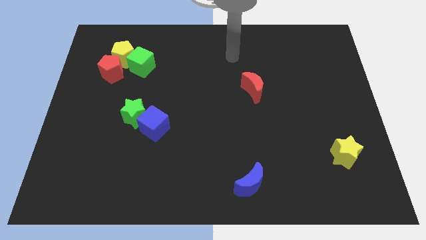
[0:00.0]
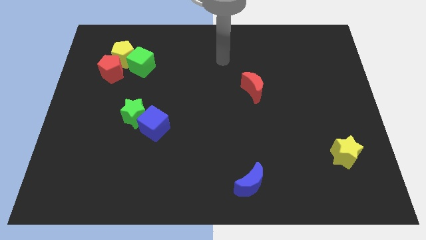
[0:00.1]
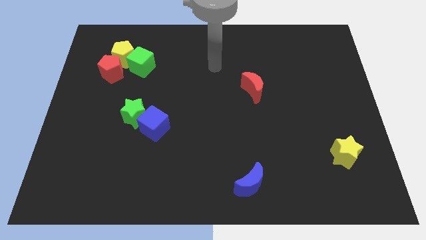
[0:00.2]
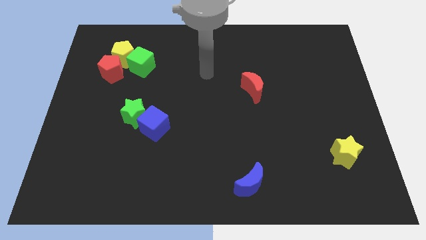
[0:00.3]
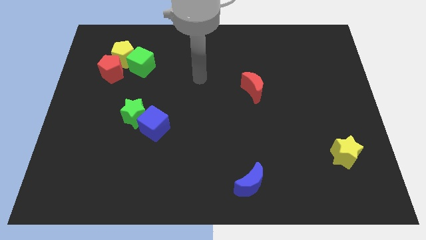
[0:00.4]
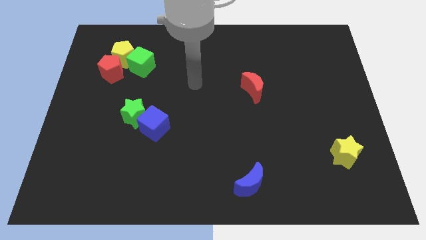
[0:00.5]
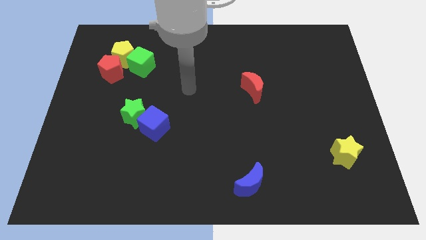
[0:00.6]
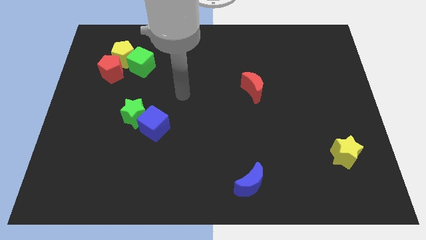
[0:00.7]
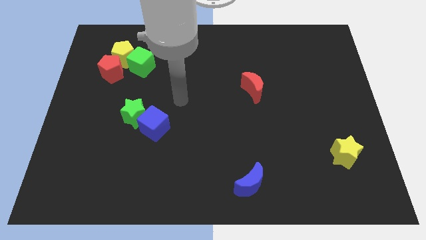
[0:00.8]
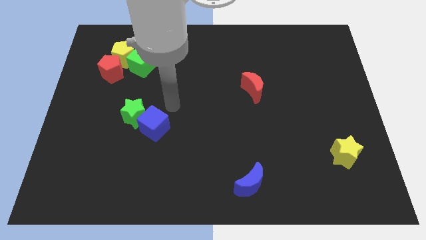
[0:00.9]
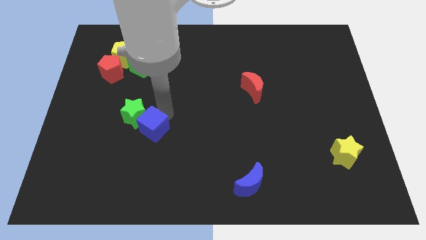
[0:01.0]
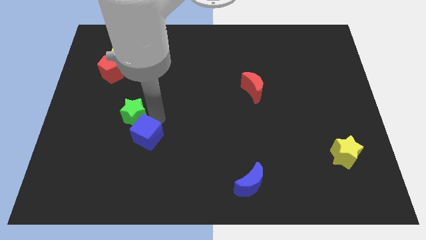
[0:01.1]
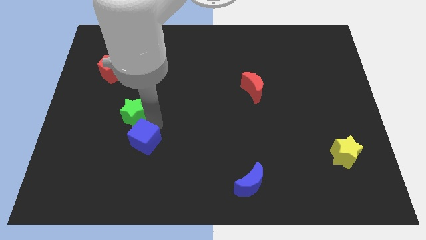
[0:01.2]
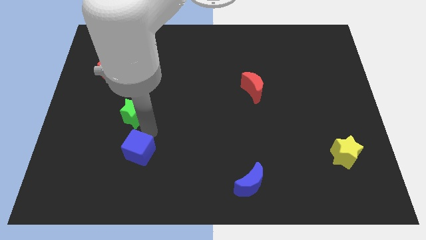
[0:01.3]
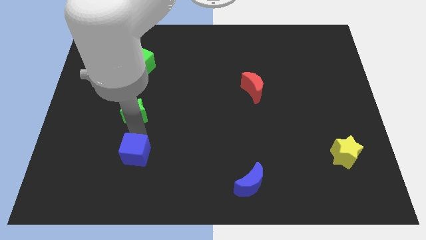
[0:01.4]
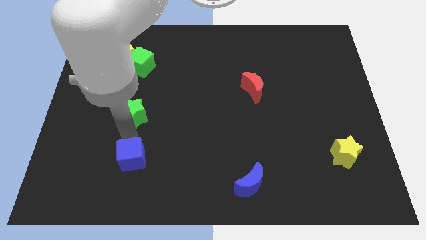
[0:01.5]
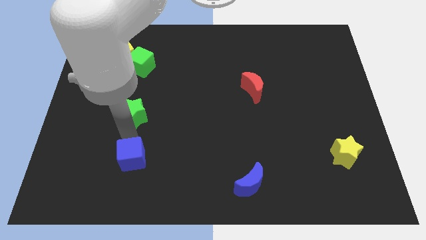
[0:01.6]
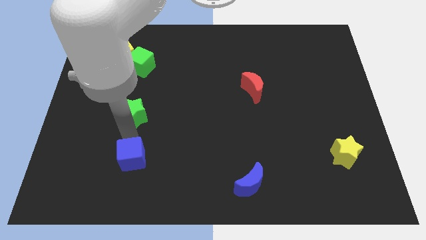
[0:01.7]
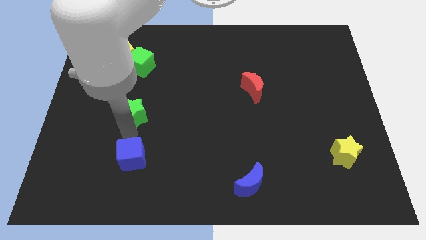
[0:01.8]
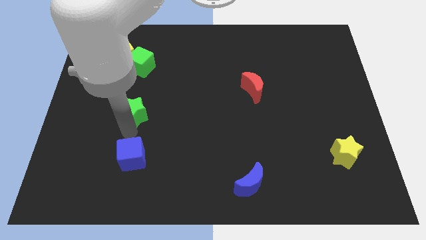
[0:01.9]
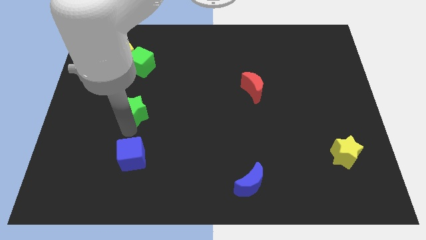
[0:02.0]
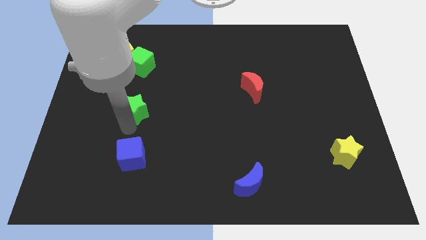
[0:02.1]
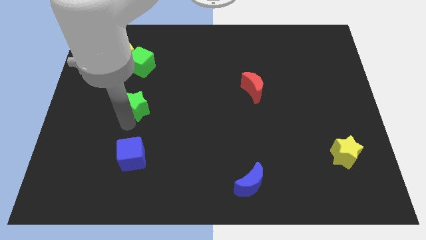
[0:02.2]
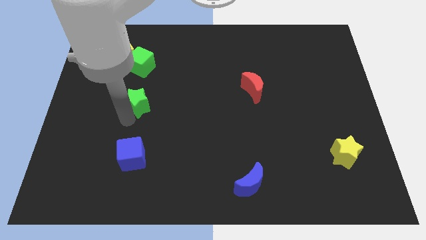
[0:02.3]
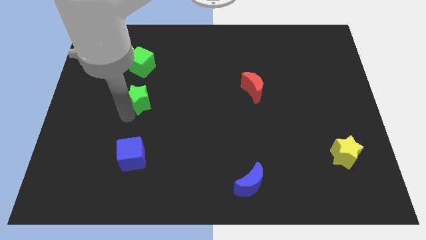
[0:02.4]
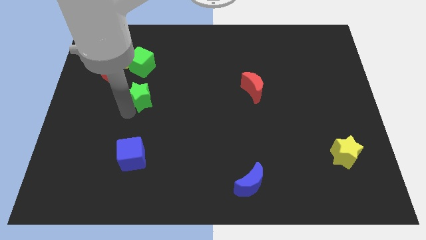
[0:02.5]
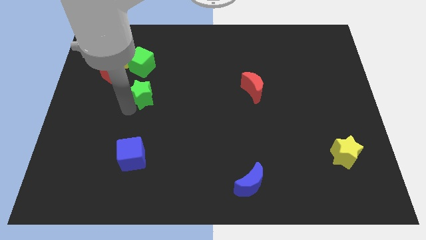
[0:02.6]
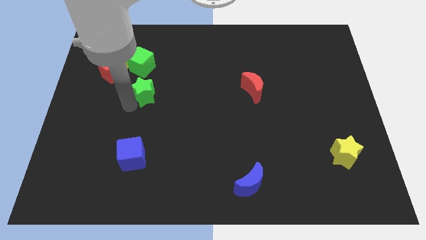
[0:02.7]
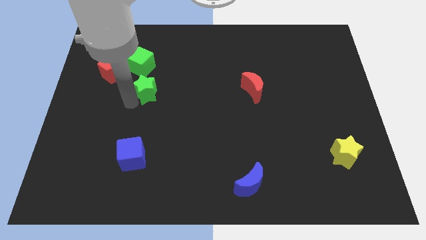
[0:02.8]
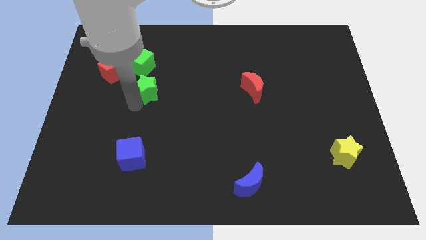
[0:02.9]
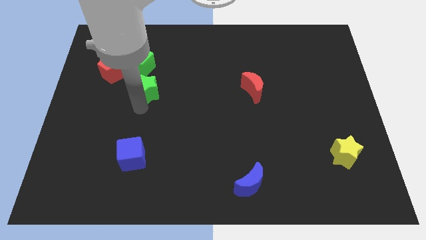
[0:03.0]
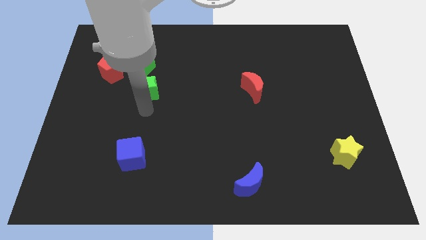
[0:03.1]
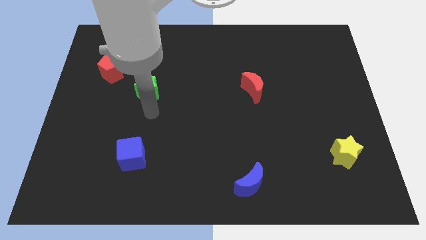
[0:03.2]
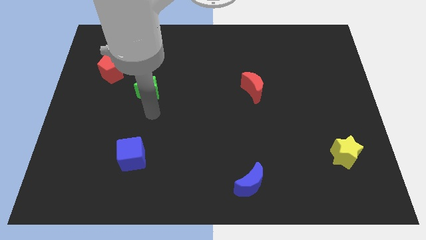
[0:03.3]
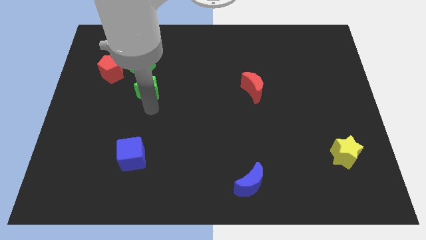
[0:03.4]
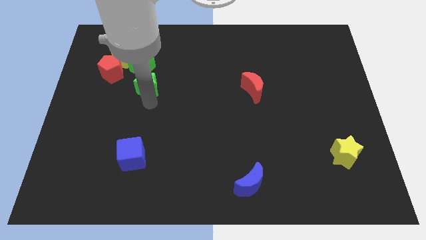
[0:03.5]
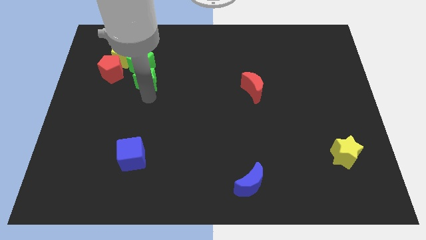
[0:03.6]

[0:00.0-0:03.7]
put the green star to the bottom right of the yellow pentagon

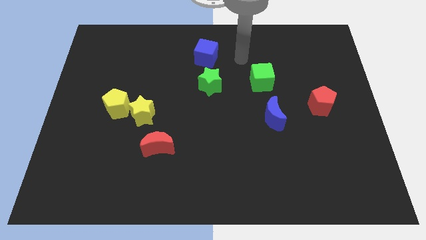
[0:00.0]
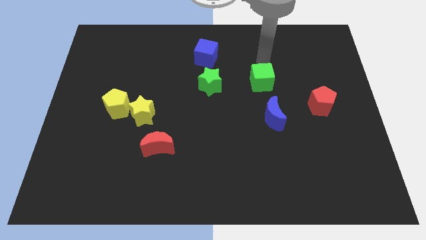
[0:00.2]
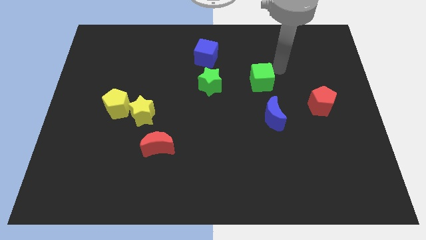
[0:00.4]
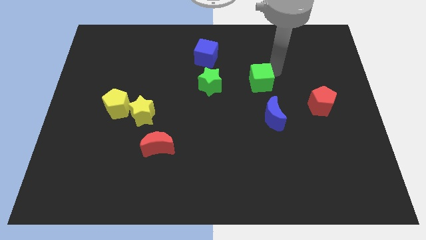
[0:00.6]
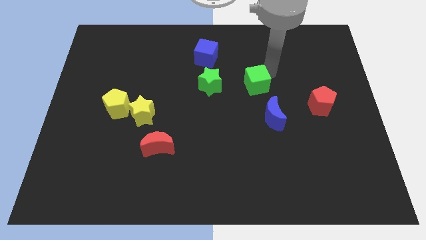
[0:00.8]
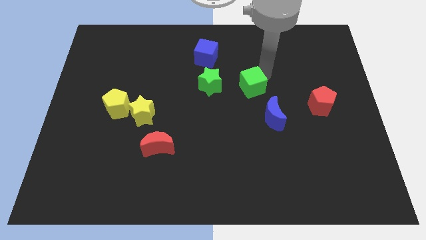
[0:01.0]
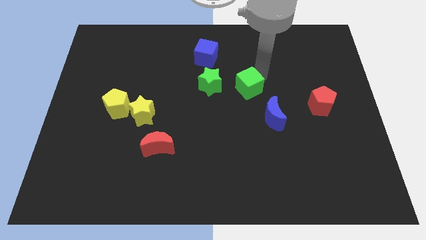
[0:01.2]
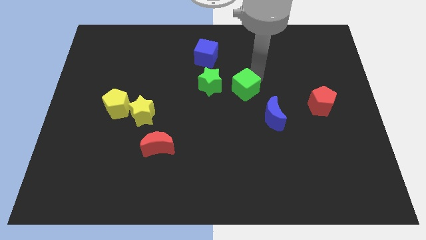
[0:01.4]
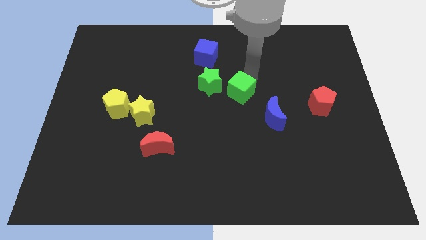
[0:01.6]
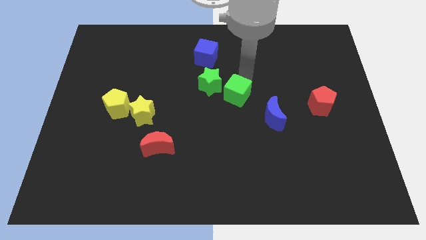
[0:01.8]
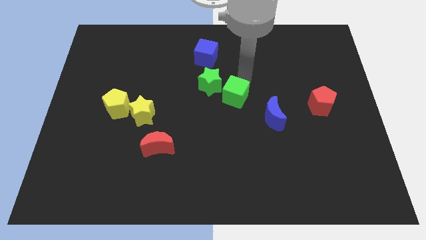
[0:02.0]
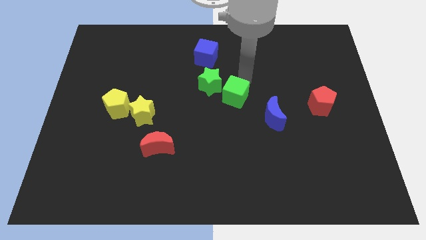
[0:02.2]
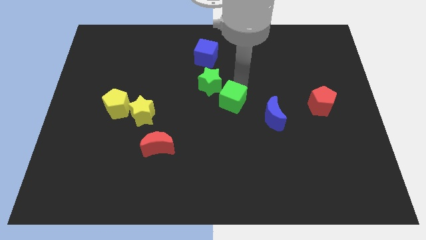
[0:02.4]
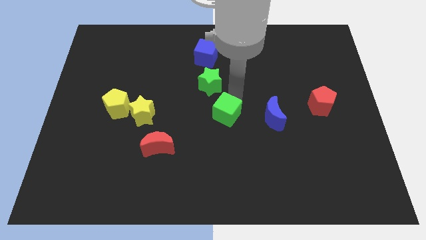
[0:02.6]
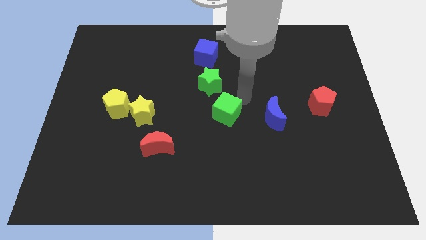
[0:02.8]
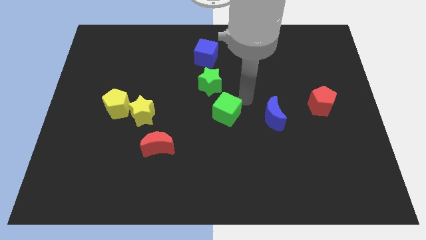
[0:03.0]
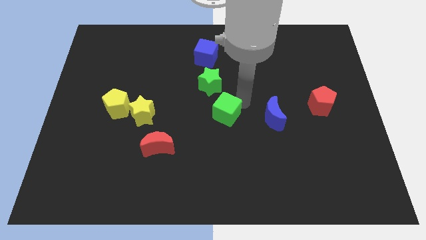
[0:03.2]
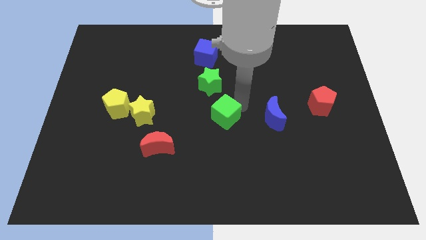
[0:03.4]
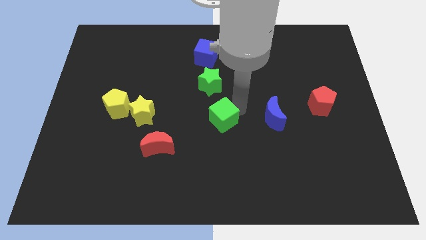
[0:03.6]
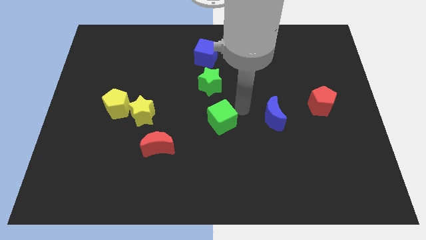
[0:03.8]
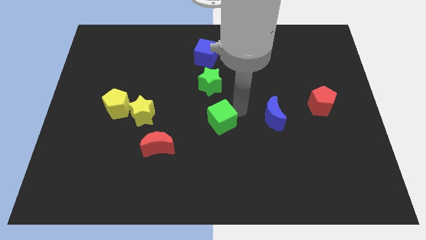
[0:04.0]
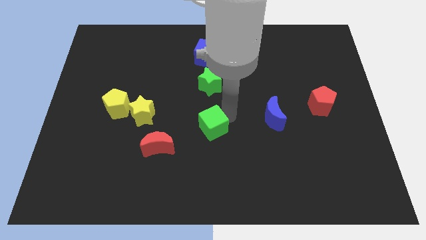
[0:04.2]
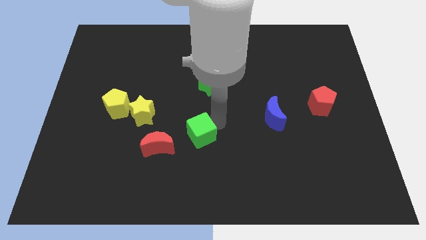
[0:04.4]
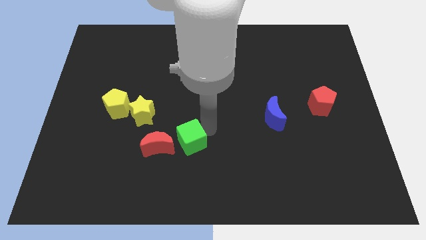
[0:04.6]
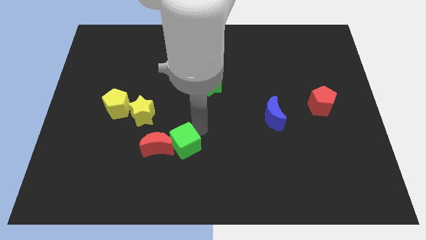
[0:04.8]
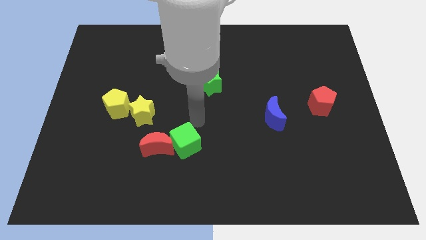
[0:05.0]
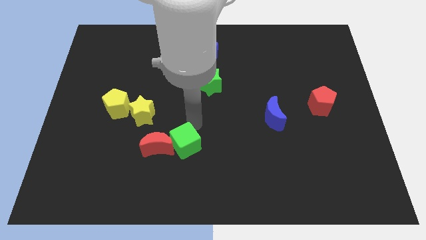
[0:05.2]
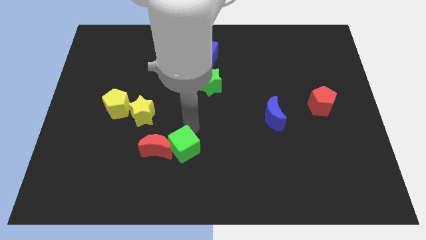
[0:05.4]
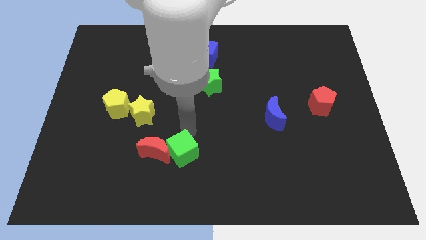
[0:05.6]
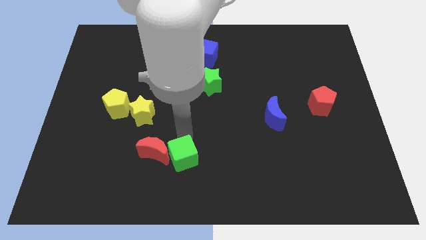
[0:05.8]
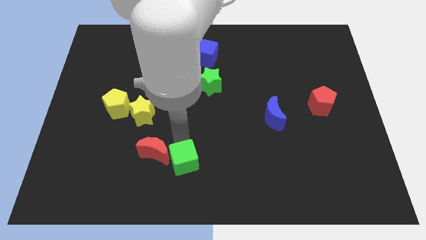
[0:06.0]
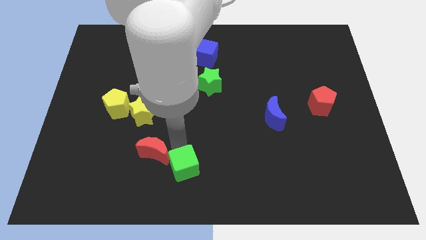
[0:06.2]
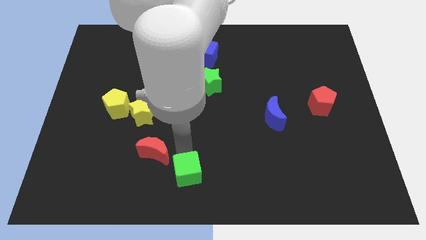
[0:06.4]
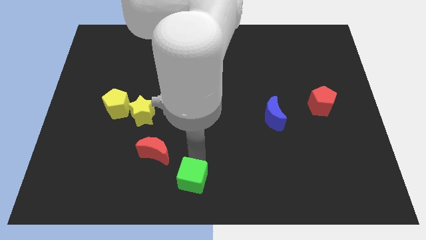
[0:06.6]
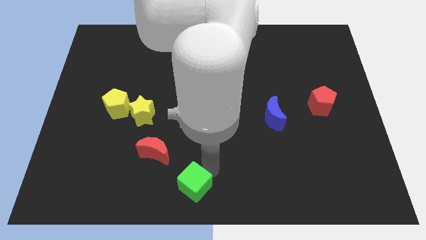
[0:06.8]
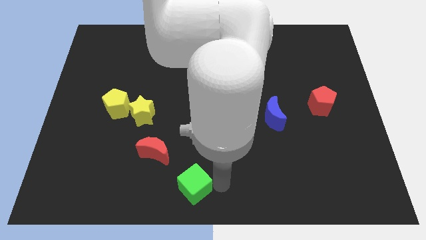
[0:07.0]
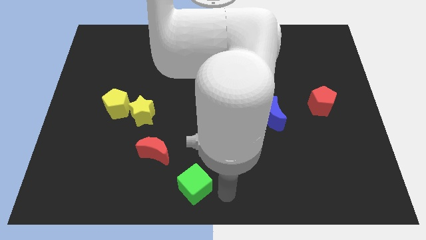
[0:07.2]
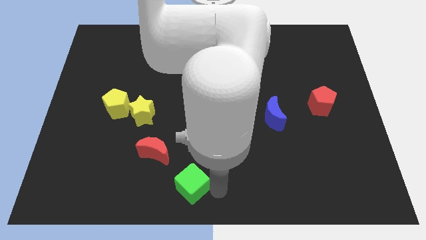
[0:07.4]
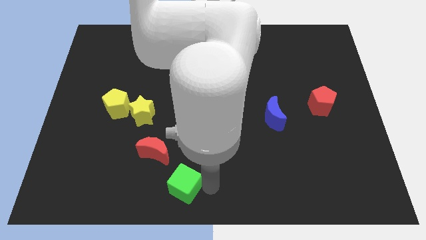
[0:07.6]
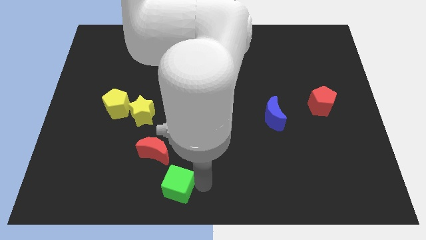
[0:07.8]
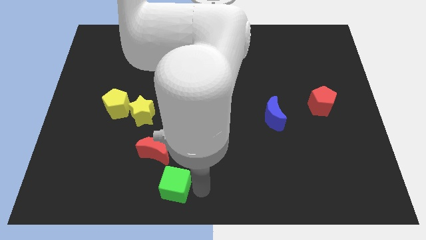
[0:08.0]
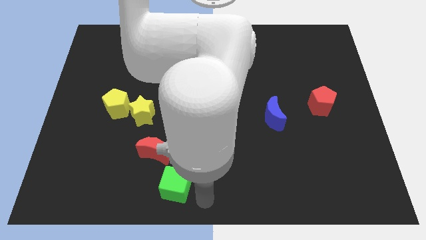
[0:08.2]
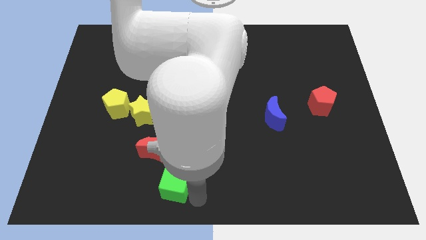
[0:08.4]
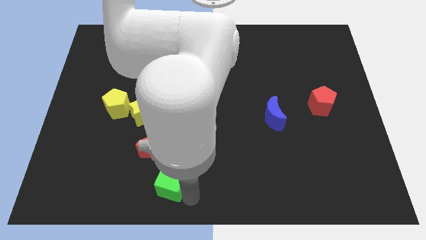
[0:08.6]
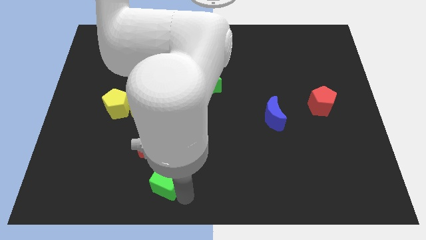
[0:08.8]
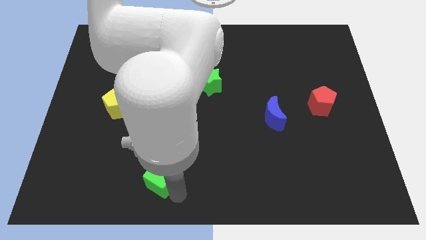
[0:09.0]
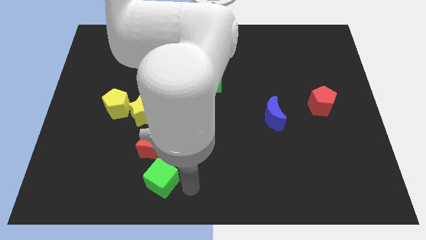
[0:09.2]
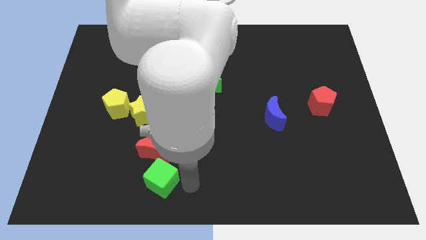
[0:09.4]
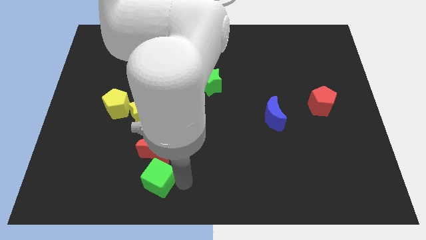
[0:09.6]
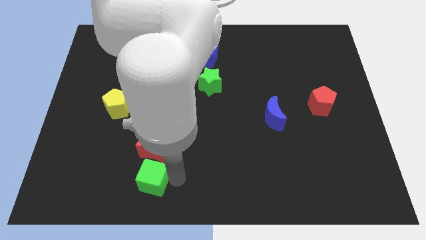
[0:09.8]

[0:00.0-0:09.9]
push the green cube to the bottom left side of the red moon
